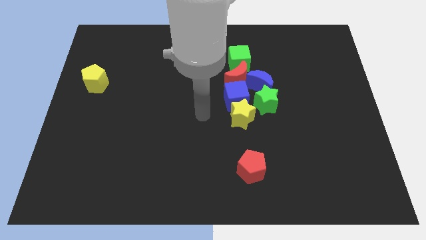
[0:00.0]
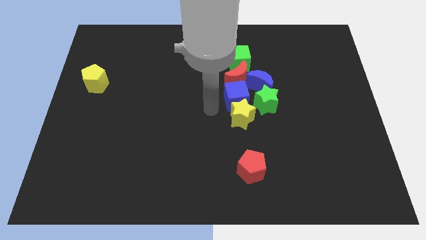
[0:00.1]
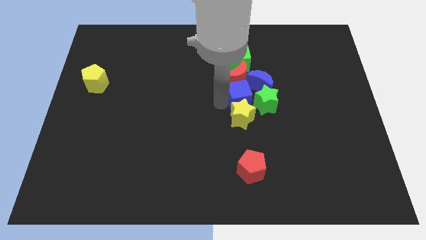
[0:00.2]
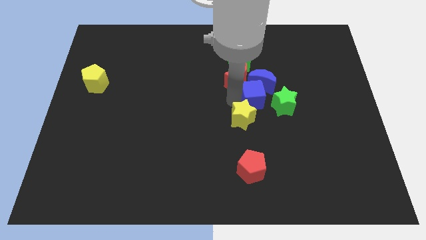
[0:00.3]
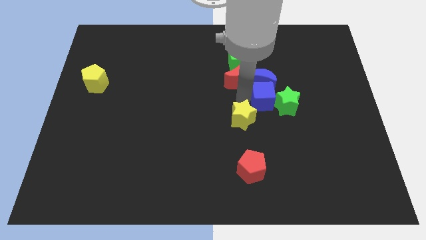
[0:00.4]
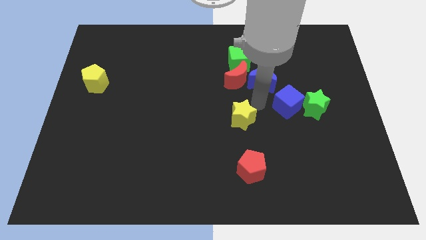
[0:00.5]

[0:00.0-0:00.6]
separate the yellow star from the blue cube and green star

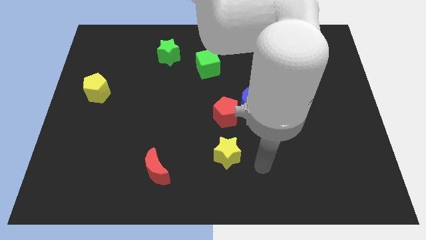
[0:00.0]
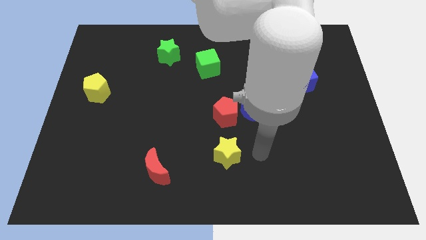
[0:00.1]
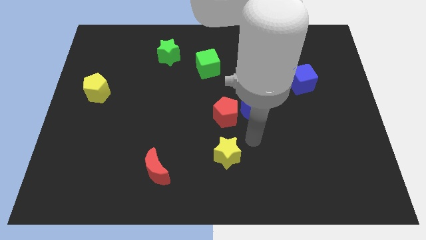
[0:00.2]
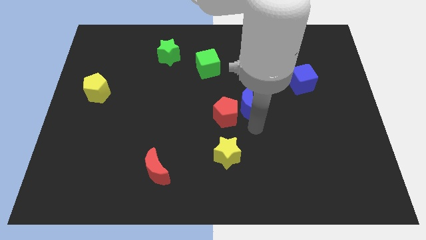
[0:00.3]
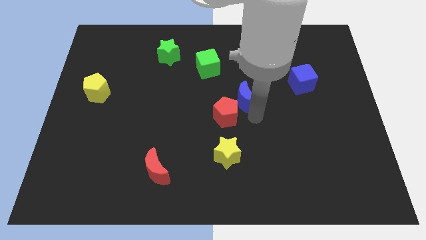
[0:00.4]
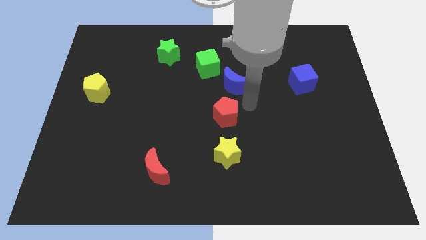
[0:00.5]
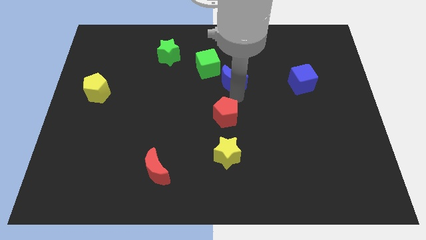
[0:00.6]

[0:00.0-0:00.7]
move the red pentagon away from the blue moon

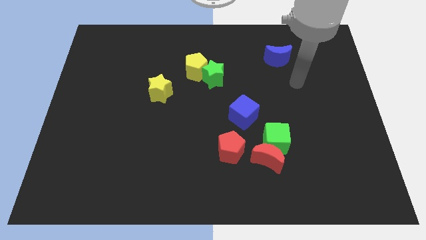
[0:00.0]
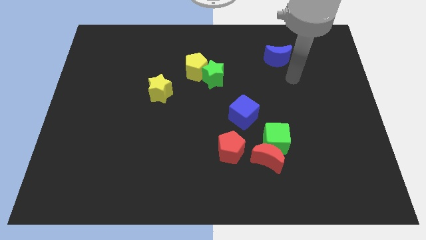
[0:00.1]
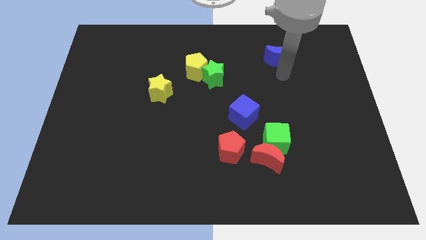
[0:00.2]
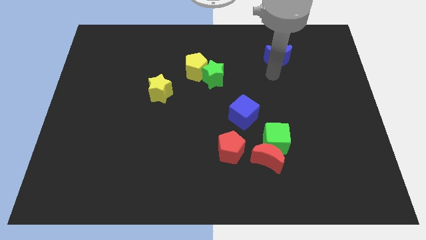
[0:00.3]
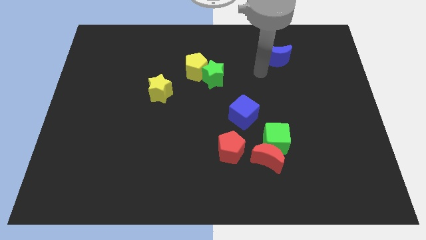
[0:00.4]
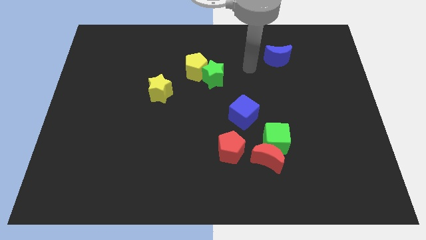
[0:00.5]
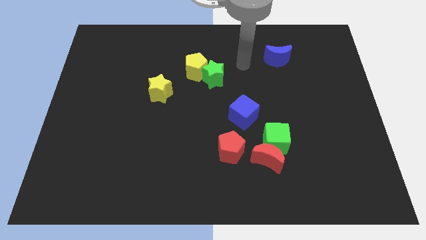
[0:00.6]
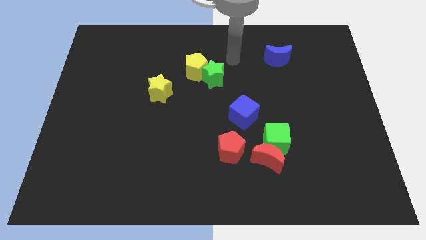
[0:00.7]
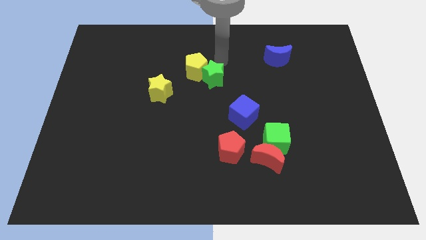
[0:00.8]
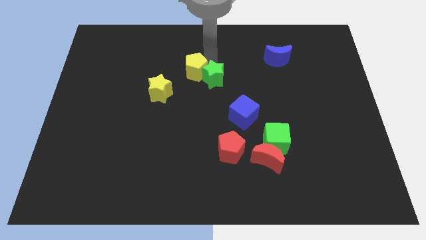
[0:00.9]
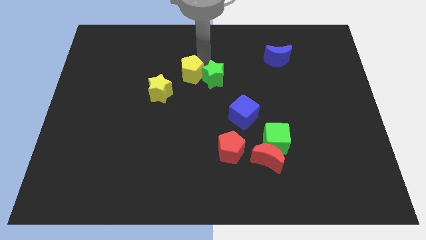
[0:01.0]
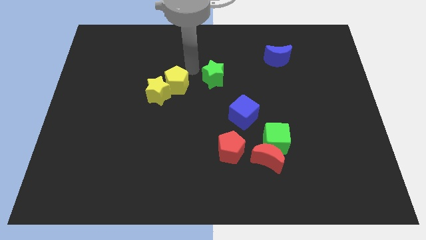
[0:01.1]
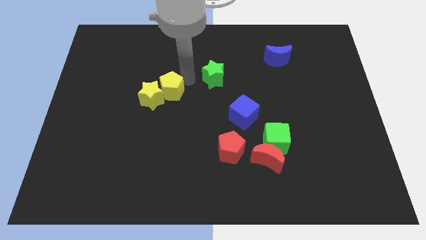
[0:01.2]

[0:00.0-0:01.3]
pull the green star apart from the yellow pentagon

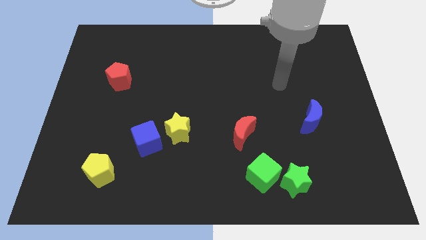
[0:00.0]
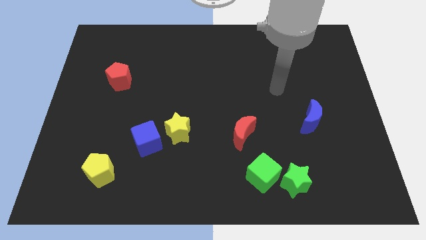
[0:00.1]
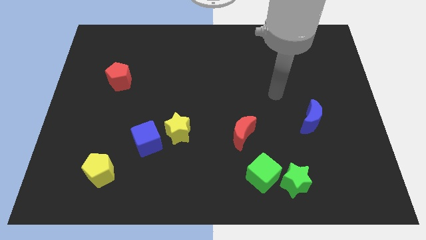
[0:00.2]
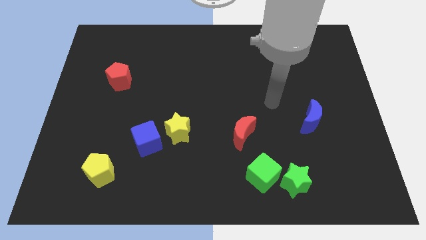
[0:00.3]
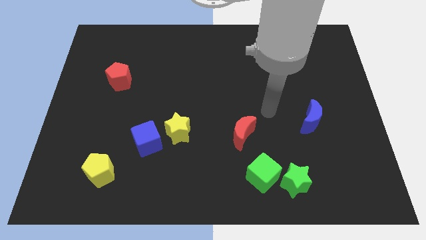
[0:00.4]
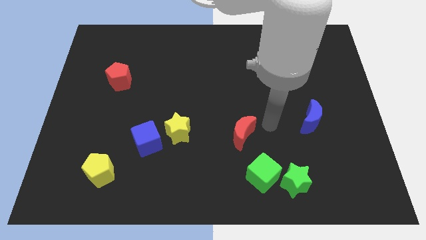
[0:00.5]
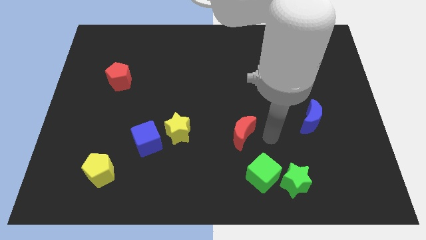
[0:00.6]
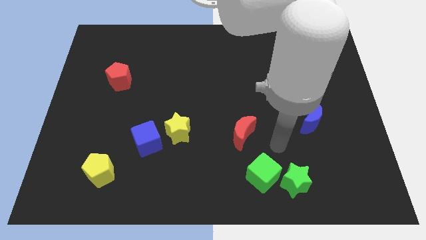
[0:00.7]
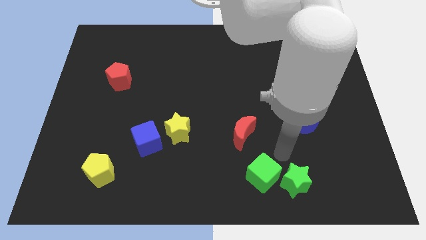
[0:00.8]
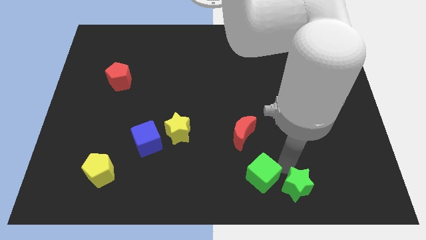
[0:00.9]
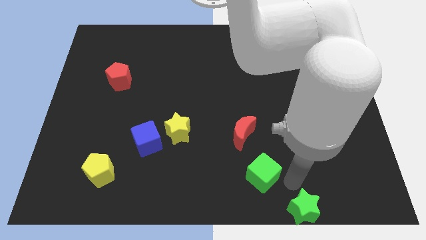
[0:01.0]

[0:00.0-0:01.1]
move the green cube away from the green star

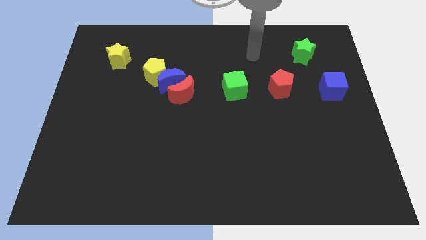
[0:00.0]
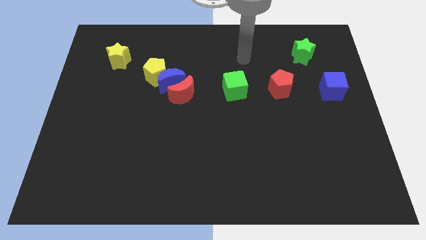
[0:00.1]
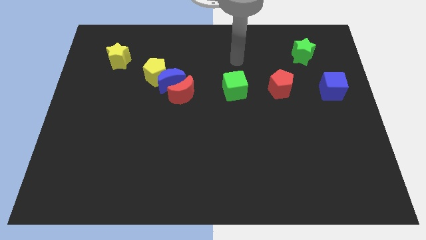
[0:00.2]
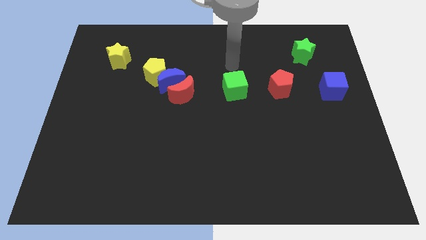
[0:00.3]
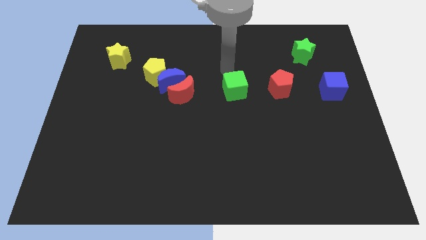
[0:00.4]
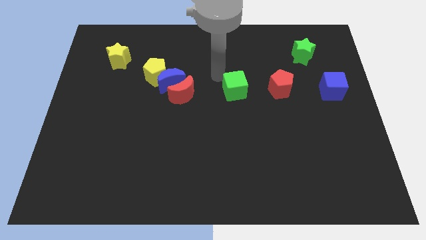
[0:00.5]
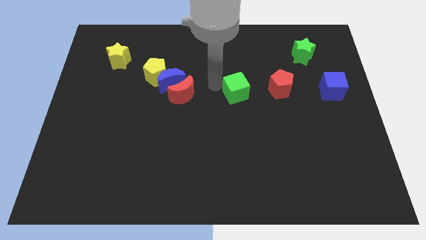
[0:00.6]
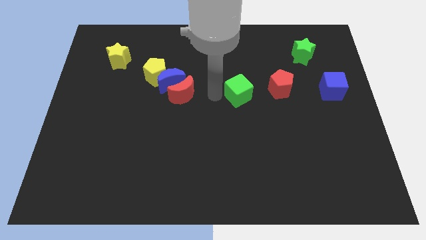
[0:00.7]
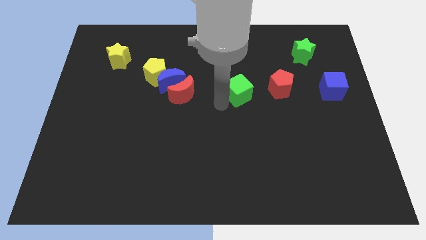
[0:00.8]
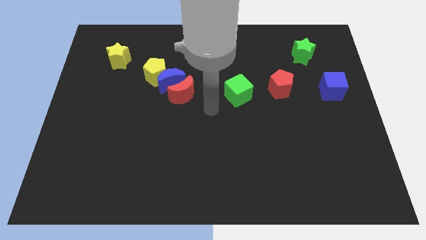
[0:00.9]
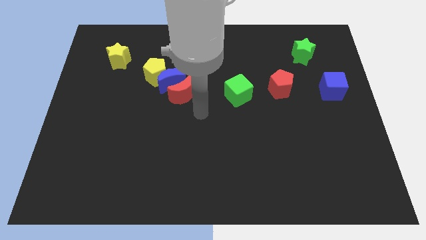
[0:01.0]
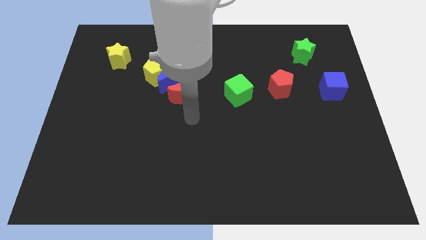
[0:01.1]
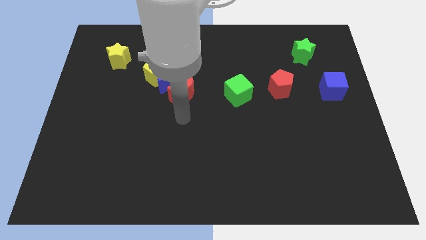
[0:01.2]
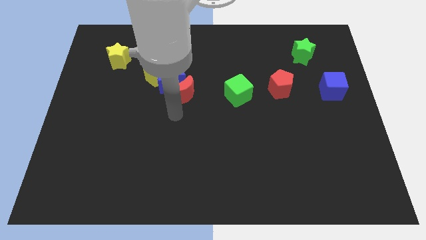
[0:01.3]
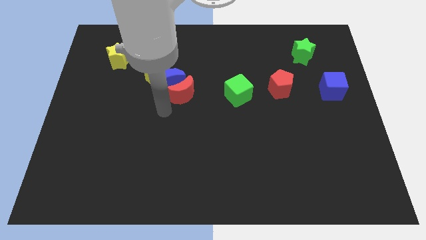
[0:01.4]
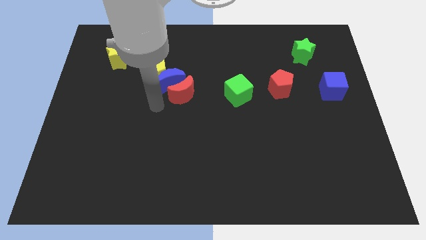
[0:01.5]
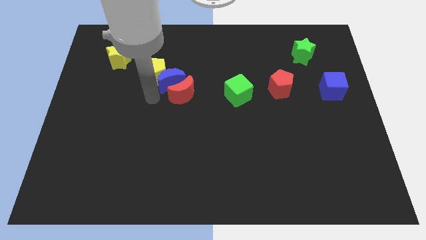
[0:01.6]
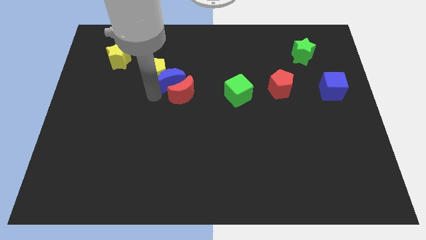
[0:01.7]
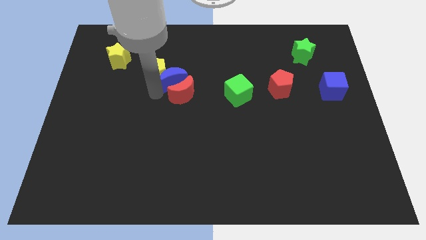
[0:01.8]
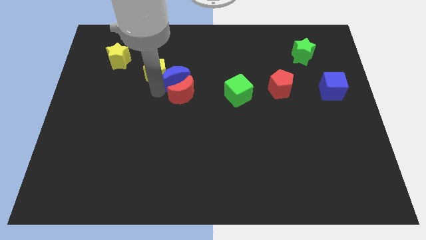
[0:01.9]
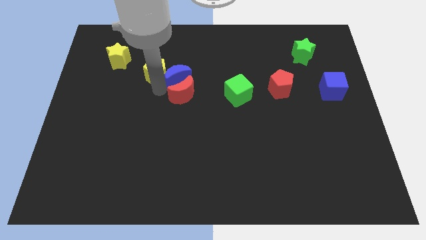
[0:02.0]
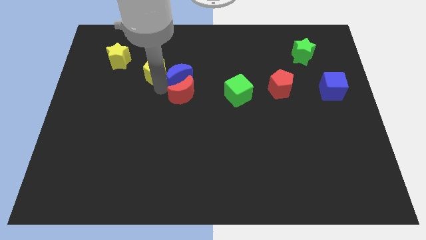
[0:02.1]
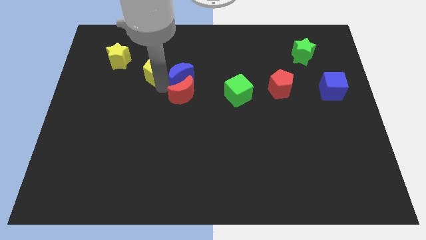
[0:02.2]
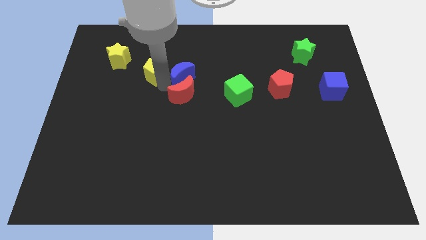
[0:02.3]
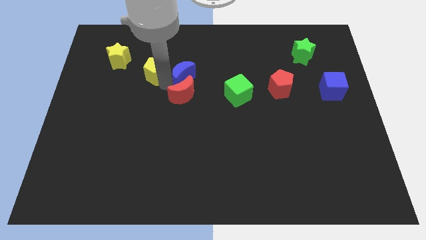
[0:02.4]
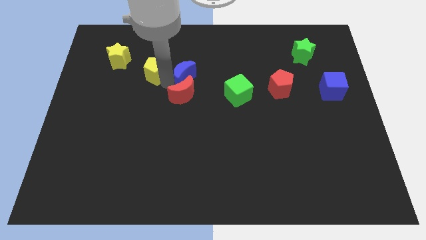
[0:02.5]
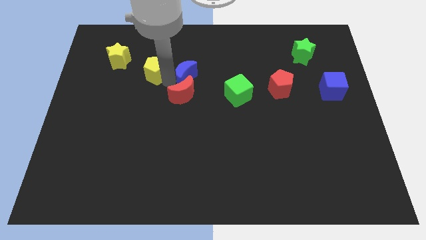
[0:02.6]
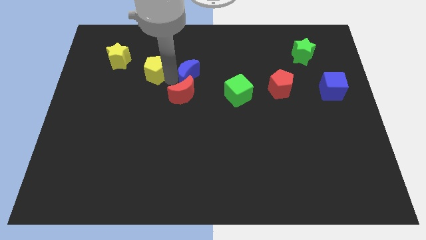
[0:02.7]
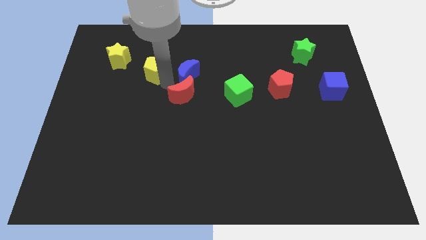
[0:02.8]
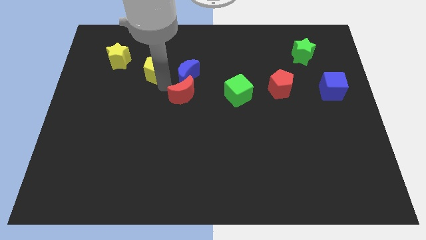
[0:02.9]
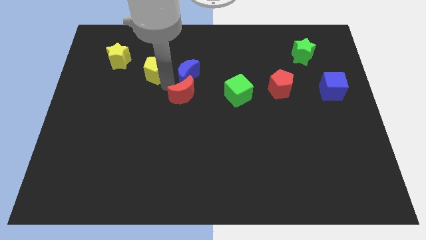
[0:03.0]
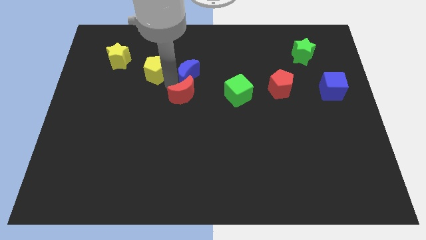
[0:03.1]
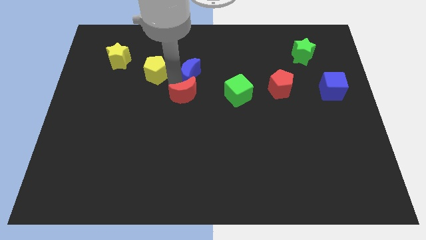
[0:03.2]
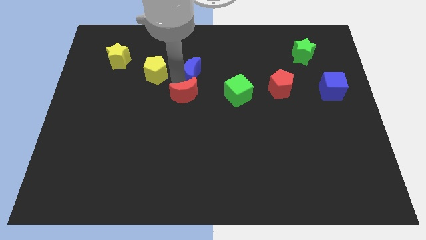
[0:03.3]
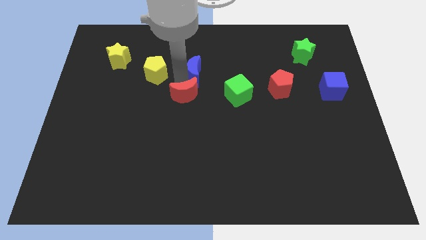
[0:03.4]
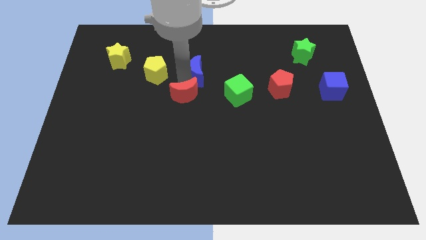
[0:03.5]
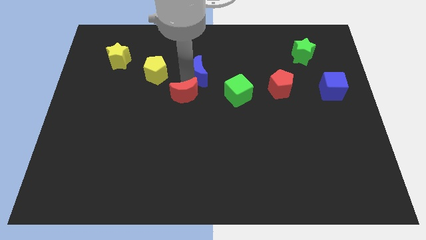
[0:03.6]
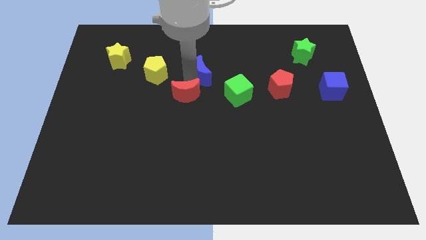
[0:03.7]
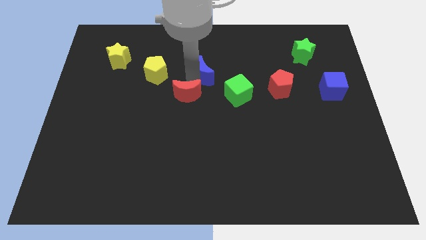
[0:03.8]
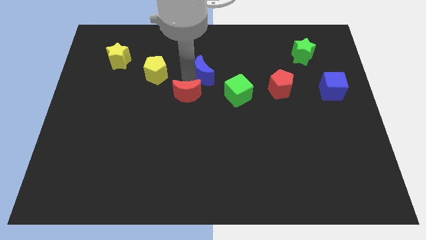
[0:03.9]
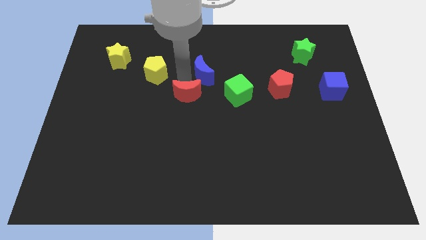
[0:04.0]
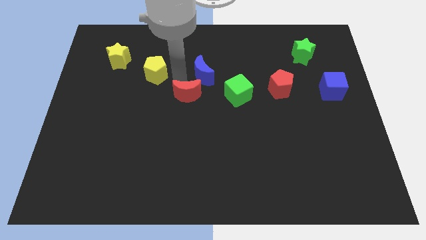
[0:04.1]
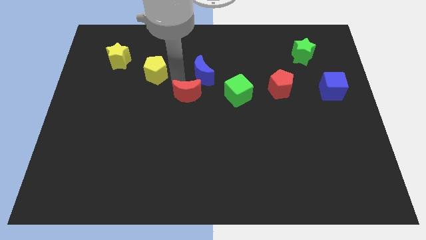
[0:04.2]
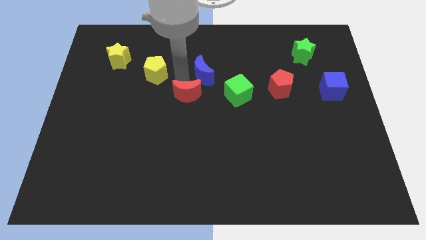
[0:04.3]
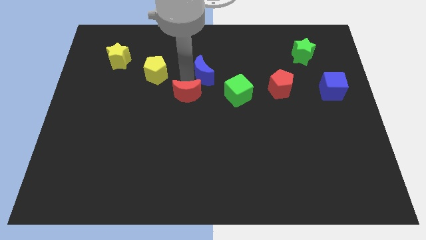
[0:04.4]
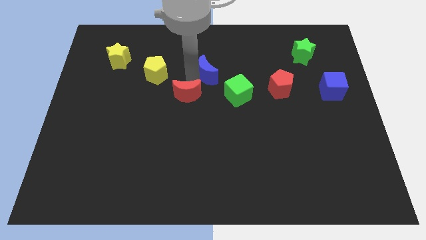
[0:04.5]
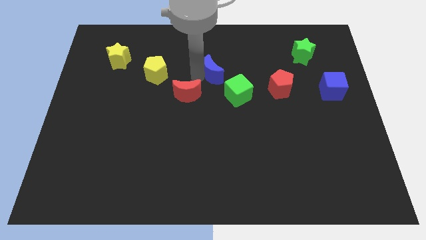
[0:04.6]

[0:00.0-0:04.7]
pull the blue moon apart from the red moon and yellow pentagon

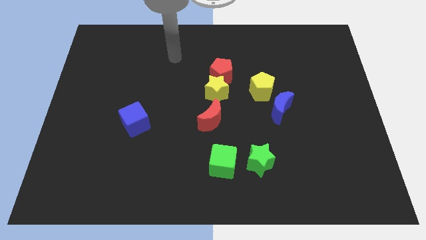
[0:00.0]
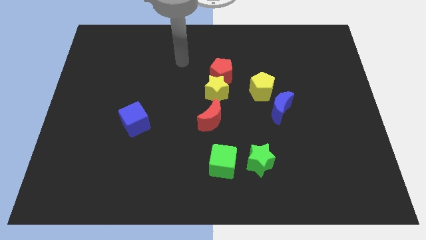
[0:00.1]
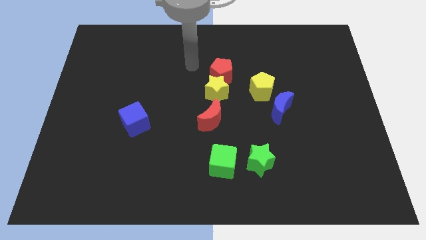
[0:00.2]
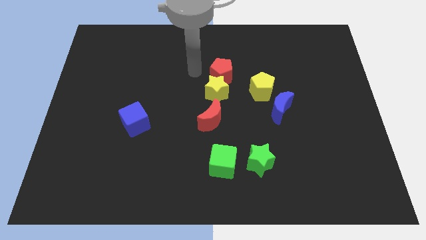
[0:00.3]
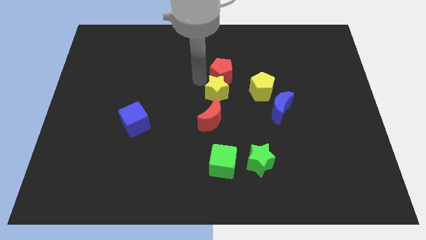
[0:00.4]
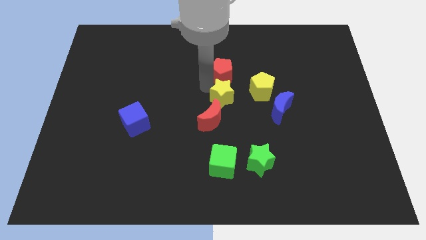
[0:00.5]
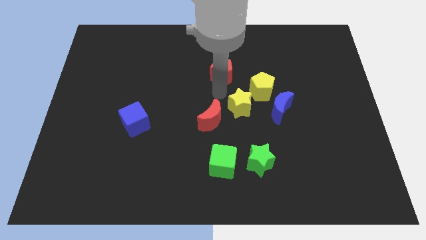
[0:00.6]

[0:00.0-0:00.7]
move the red pentagon away from the yellow star
